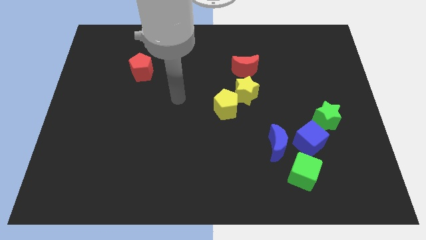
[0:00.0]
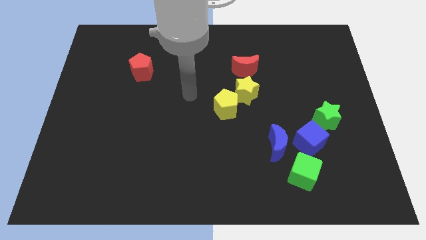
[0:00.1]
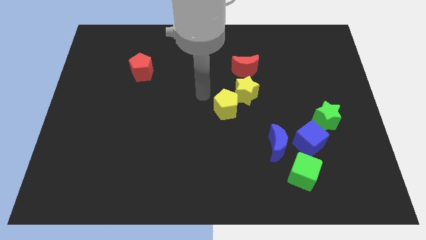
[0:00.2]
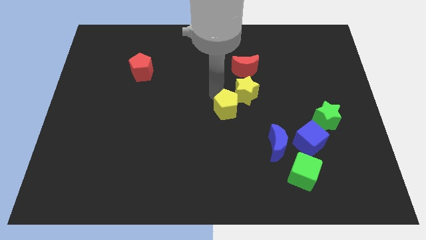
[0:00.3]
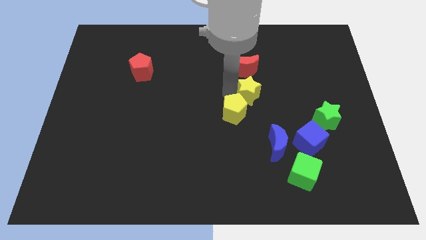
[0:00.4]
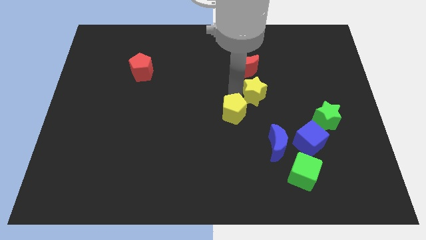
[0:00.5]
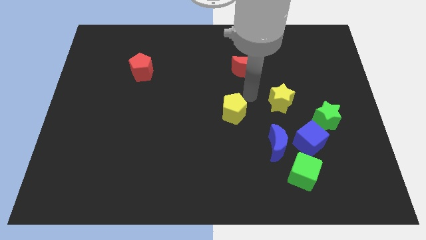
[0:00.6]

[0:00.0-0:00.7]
pull the yellow pentagon apart from the yellow star

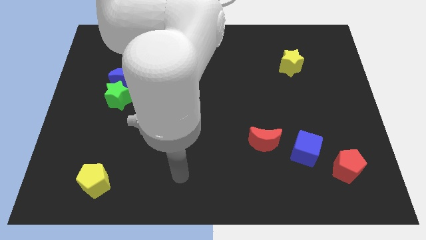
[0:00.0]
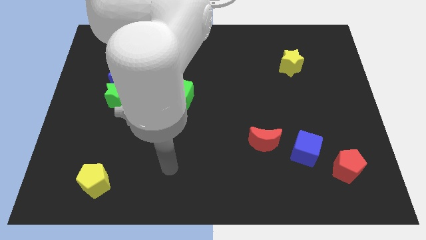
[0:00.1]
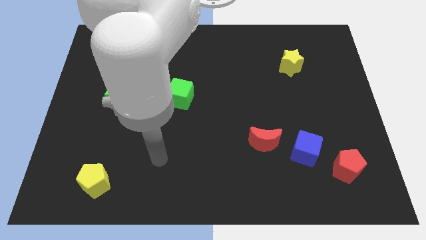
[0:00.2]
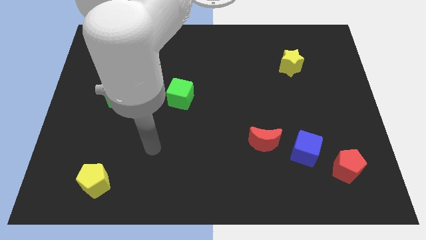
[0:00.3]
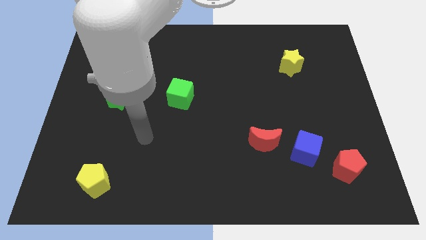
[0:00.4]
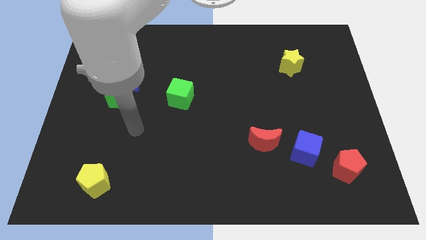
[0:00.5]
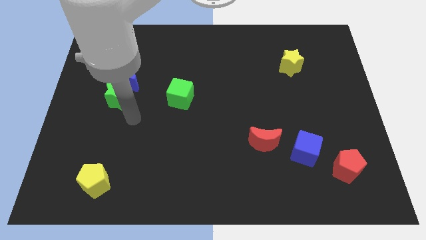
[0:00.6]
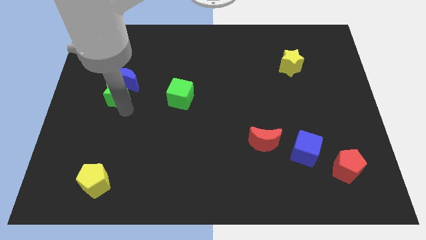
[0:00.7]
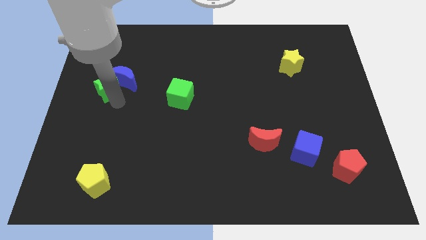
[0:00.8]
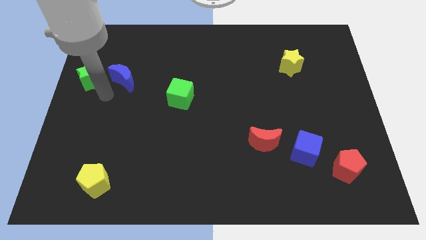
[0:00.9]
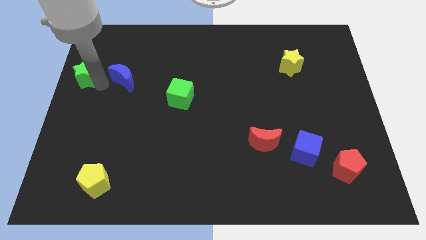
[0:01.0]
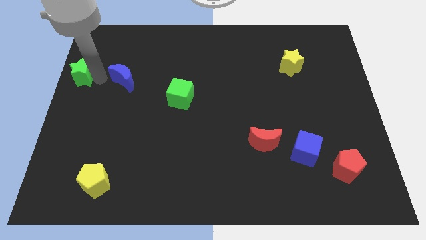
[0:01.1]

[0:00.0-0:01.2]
separate the blue moon from the green star

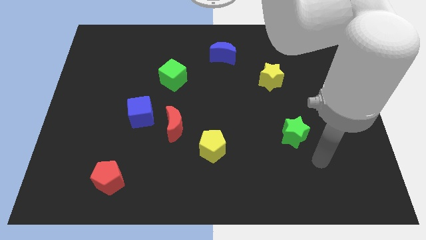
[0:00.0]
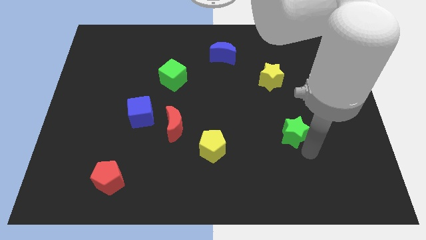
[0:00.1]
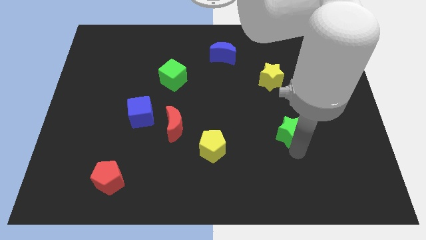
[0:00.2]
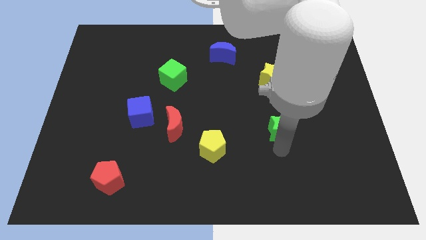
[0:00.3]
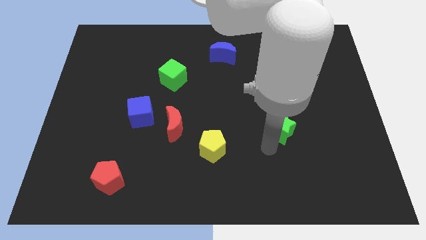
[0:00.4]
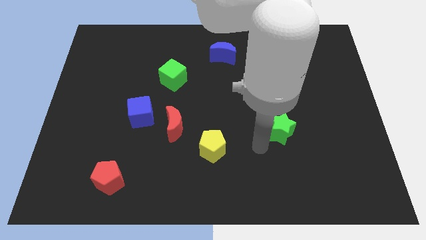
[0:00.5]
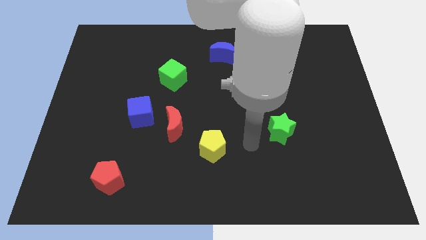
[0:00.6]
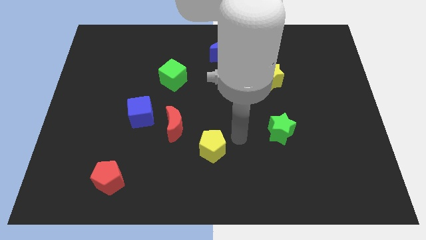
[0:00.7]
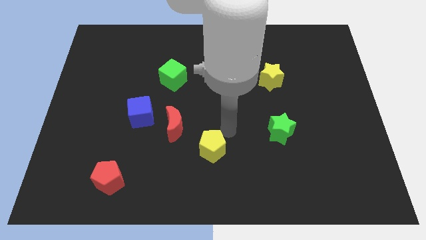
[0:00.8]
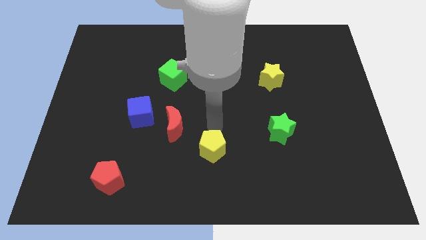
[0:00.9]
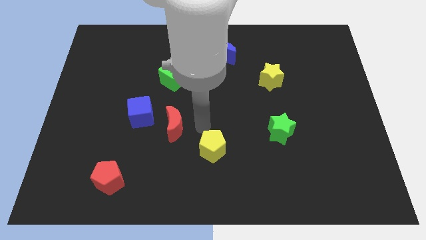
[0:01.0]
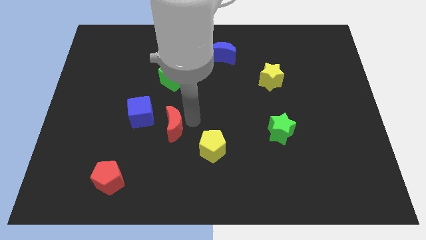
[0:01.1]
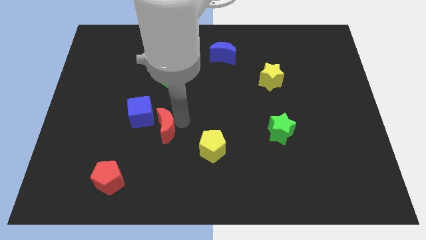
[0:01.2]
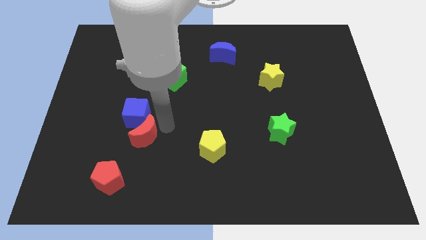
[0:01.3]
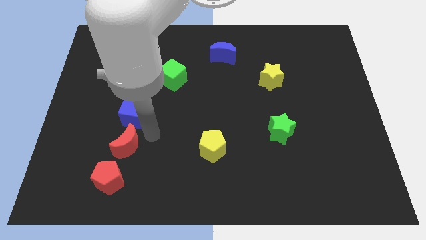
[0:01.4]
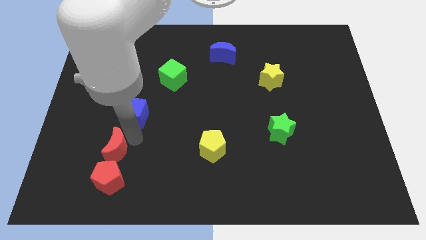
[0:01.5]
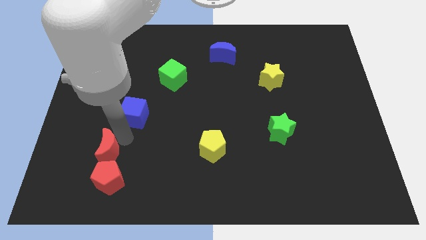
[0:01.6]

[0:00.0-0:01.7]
pull the blue cube apart from the red moon

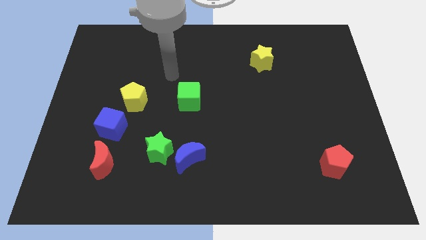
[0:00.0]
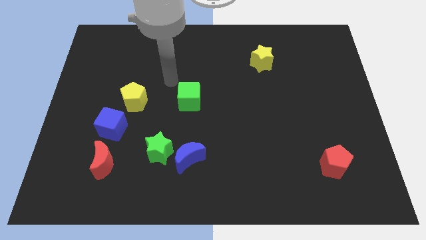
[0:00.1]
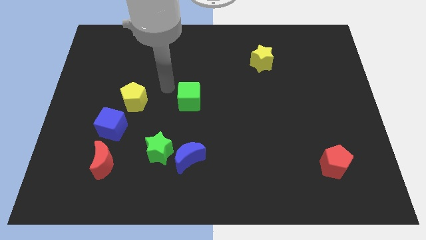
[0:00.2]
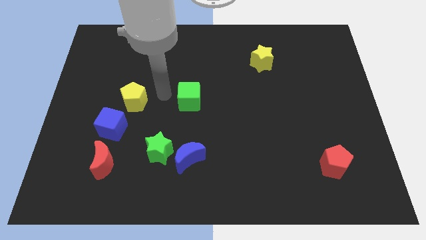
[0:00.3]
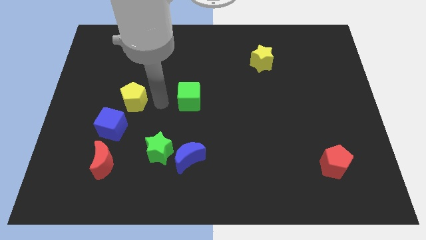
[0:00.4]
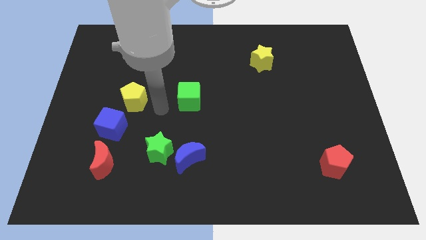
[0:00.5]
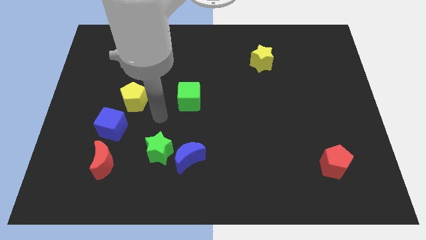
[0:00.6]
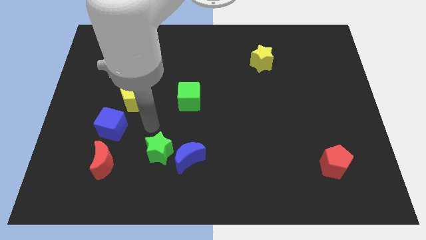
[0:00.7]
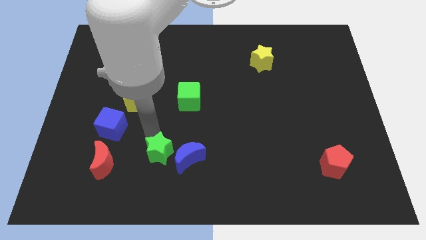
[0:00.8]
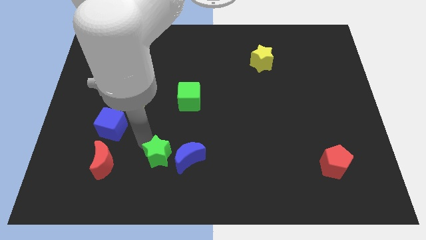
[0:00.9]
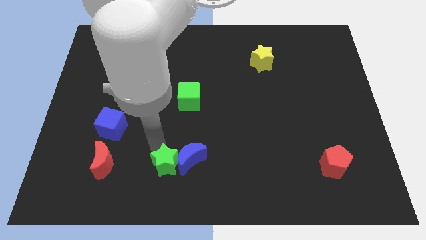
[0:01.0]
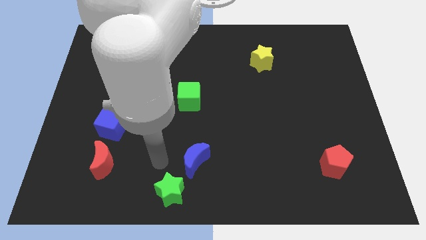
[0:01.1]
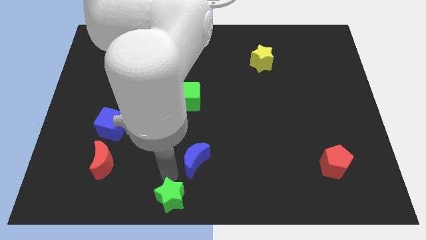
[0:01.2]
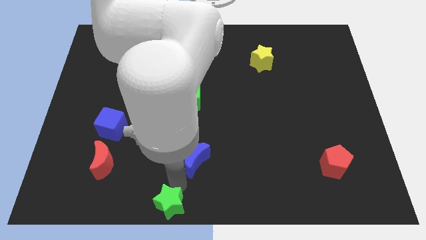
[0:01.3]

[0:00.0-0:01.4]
pull the blue moon apart from the green star

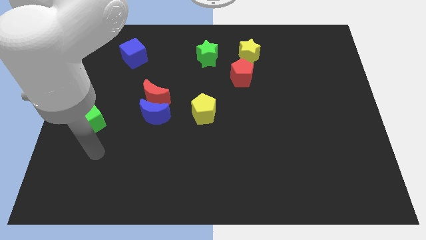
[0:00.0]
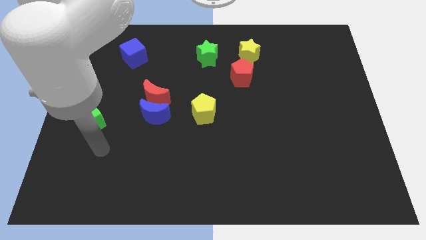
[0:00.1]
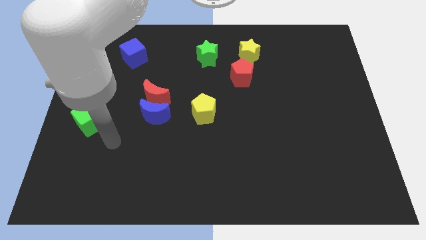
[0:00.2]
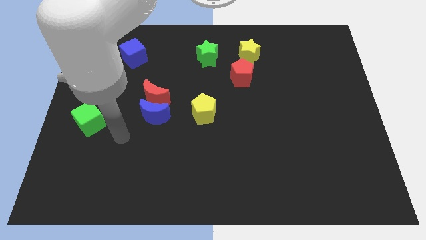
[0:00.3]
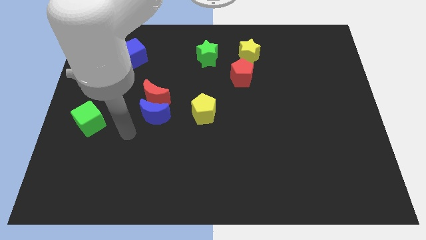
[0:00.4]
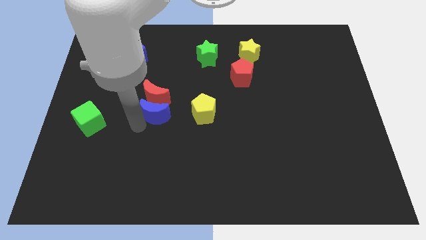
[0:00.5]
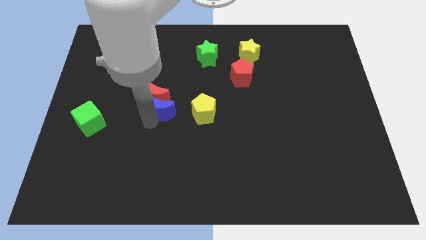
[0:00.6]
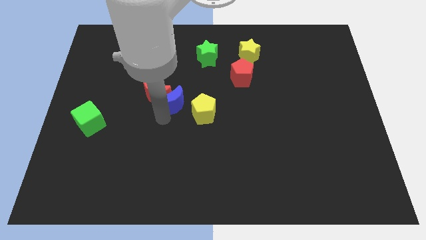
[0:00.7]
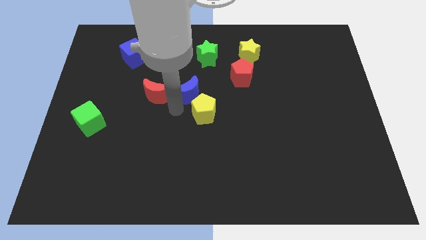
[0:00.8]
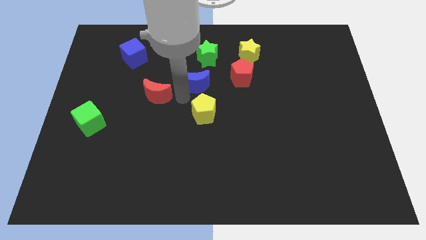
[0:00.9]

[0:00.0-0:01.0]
pull the red moon apart from the blue moon

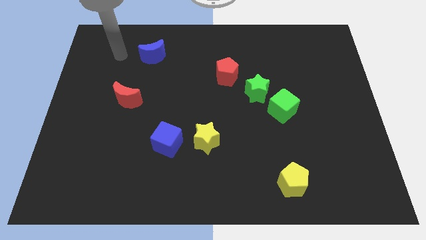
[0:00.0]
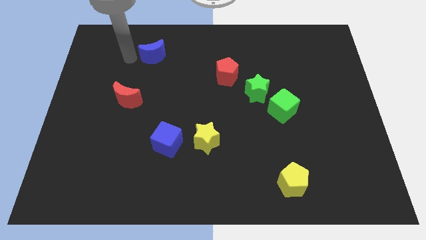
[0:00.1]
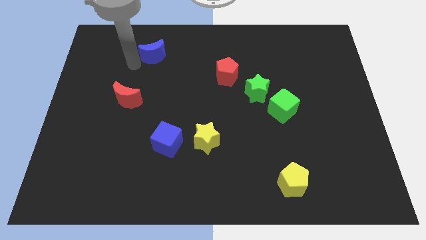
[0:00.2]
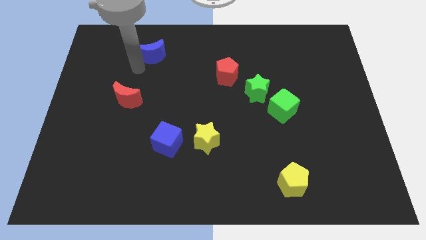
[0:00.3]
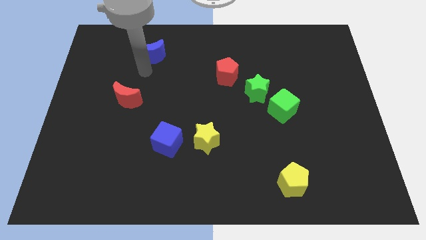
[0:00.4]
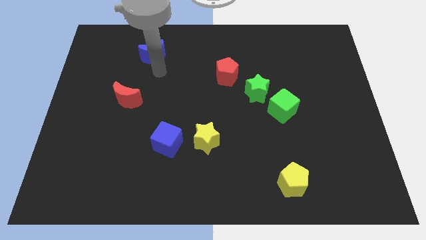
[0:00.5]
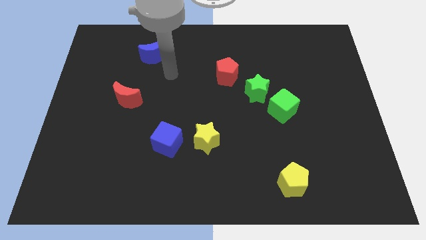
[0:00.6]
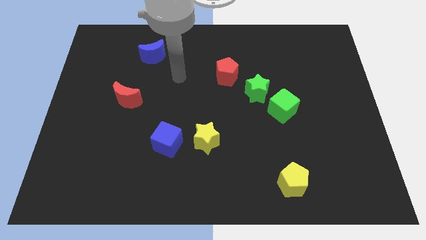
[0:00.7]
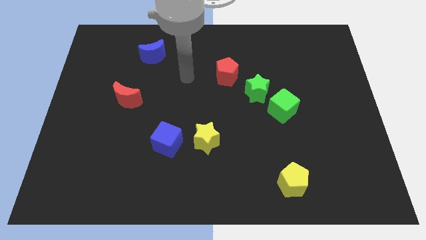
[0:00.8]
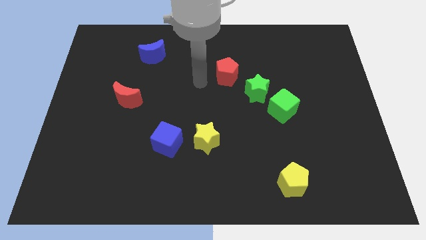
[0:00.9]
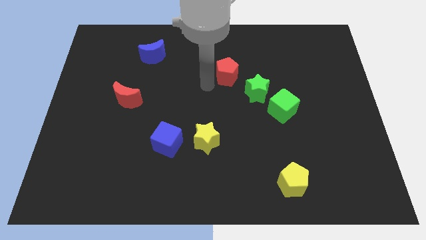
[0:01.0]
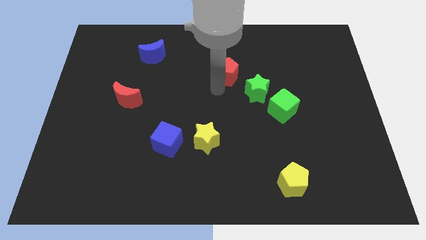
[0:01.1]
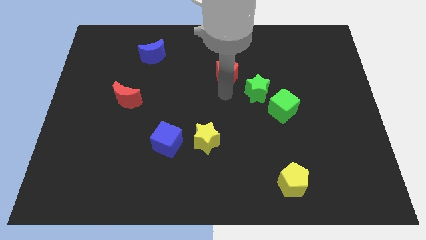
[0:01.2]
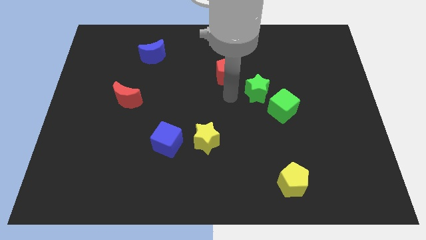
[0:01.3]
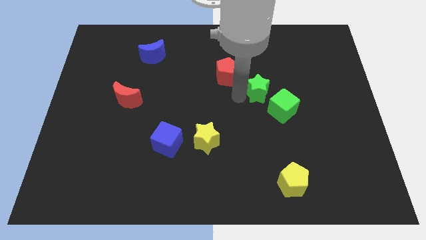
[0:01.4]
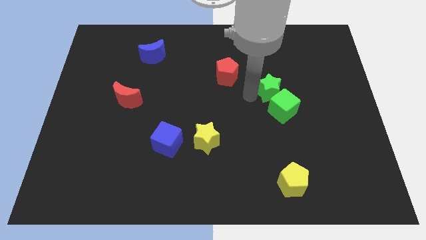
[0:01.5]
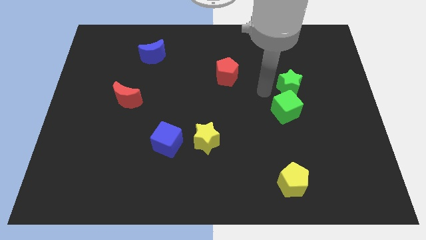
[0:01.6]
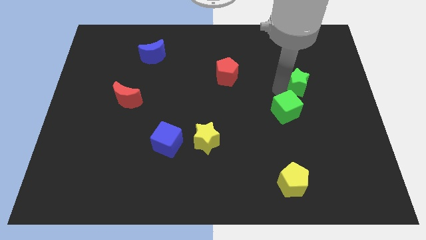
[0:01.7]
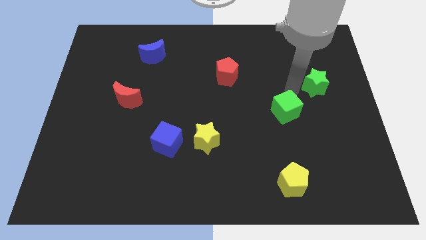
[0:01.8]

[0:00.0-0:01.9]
pull the green cube apart from the green star

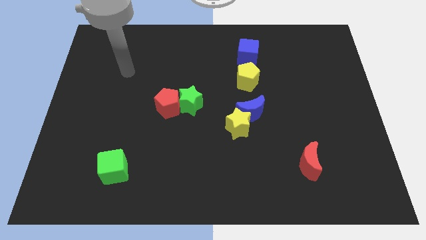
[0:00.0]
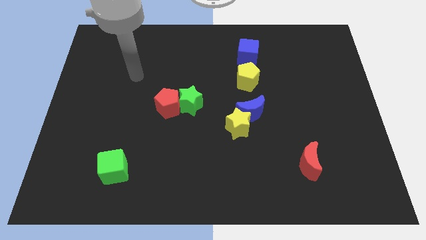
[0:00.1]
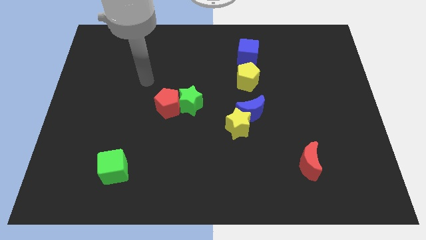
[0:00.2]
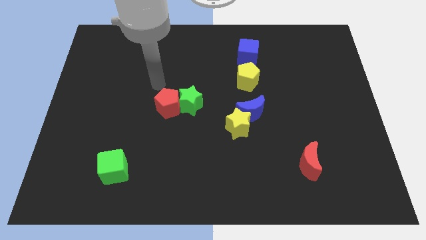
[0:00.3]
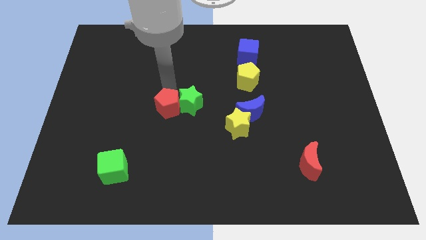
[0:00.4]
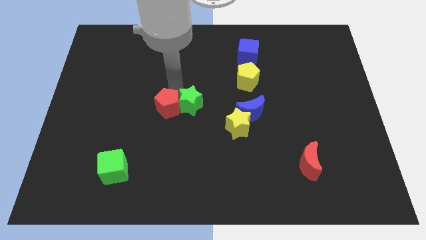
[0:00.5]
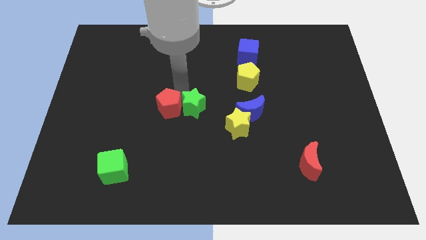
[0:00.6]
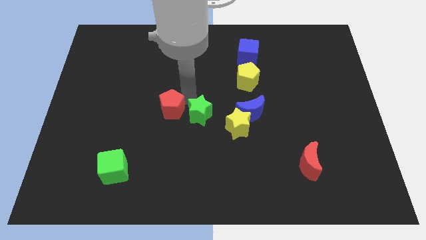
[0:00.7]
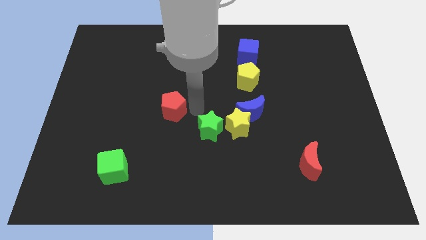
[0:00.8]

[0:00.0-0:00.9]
move the red pentagon away from the green star

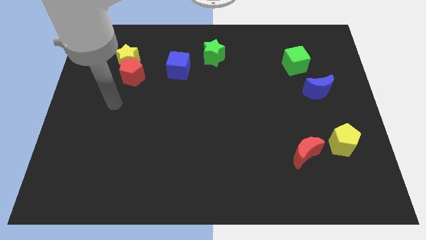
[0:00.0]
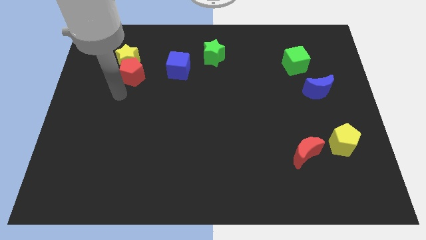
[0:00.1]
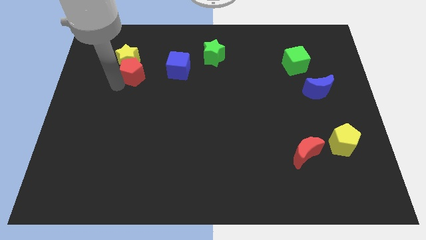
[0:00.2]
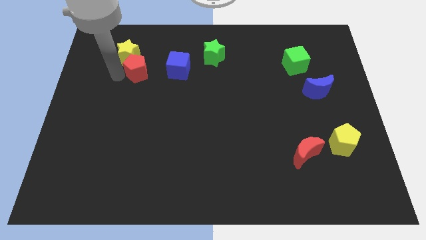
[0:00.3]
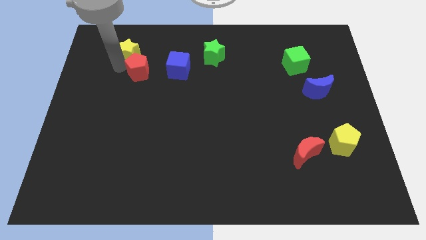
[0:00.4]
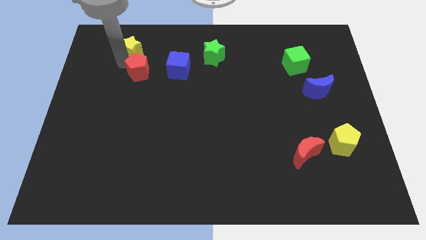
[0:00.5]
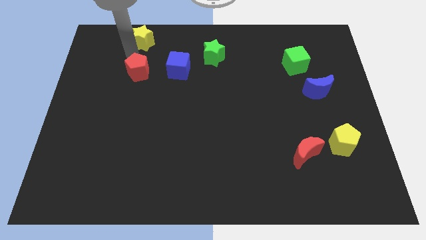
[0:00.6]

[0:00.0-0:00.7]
move the red pentagon away from the yellow star
